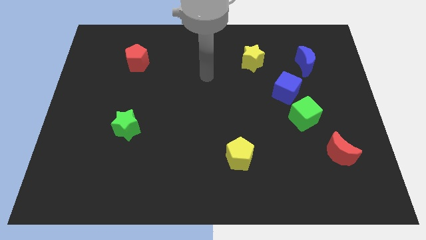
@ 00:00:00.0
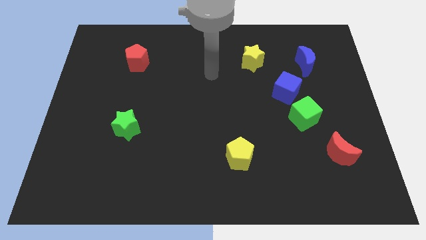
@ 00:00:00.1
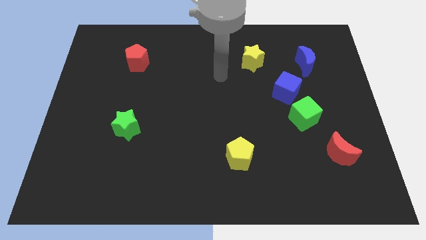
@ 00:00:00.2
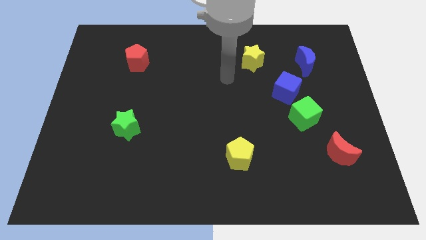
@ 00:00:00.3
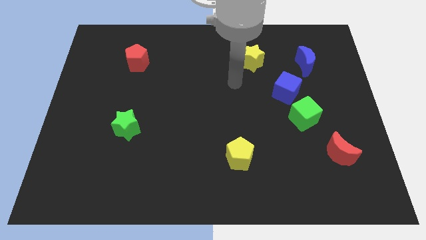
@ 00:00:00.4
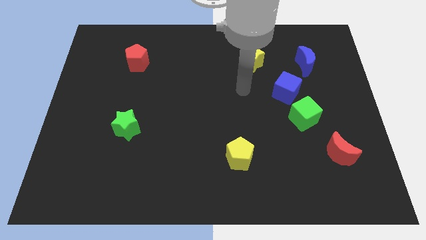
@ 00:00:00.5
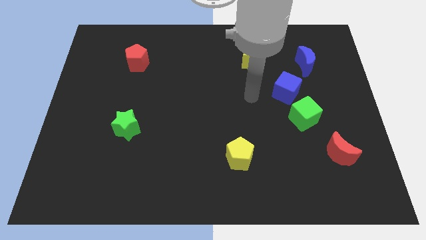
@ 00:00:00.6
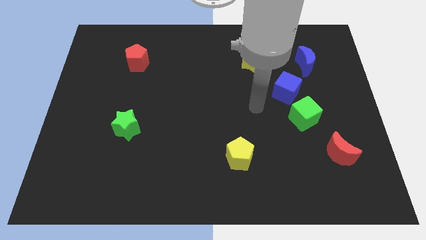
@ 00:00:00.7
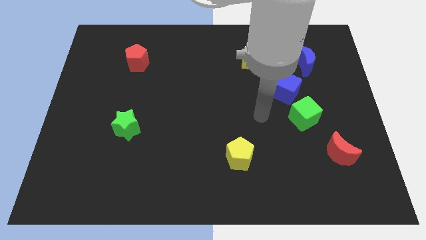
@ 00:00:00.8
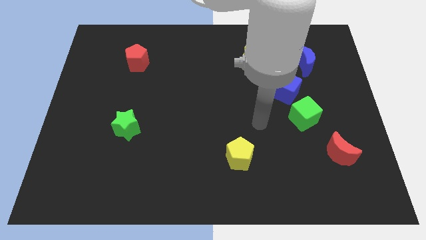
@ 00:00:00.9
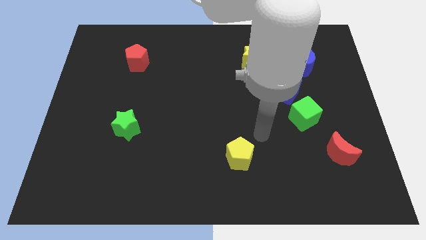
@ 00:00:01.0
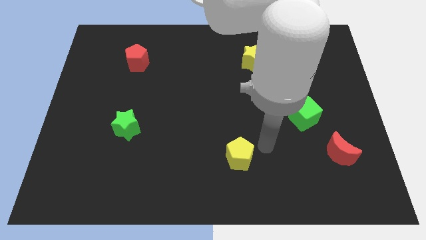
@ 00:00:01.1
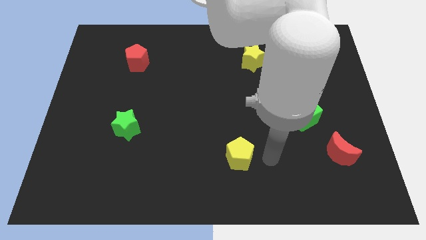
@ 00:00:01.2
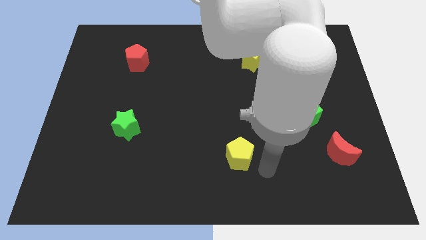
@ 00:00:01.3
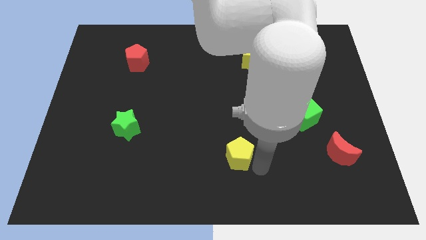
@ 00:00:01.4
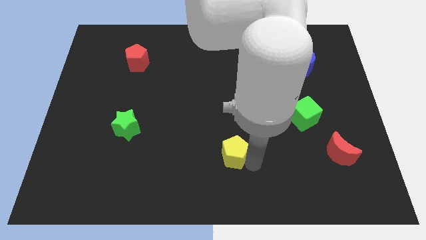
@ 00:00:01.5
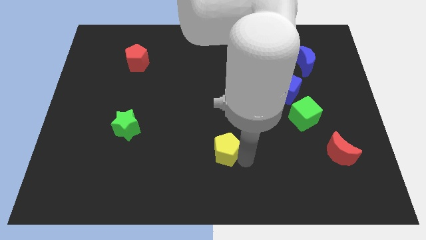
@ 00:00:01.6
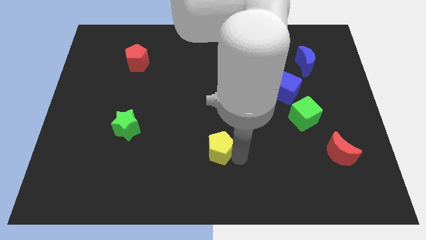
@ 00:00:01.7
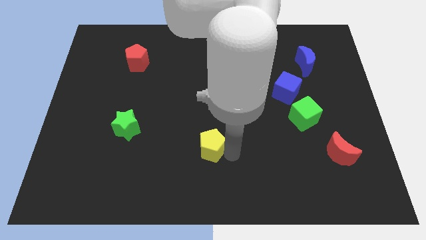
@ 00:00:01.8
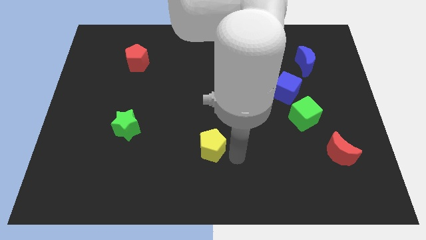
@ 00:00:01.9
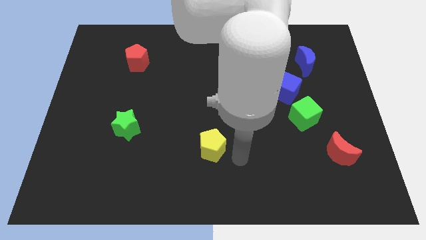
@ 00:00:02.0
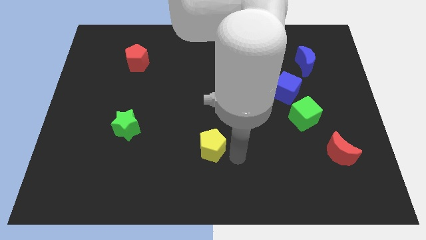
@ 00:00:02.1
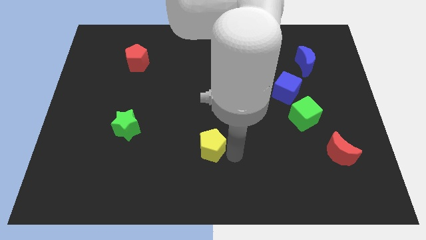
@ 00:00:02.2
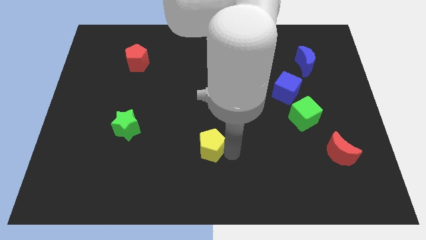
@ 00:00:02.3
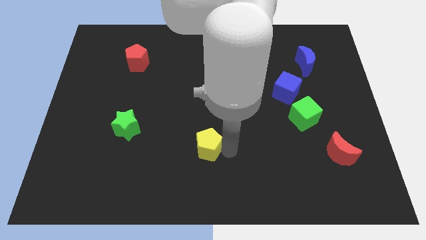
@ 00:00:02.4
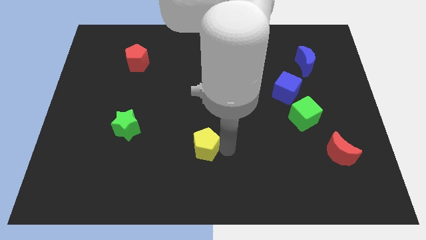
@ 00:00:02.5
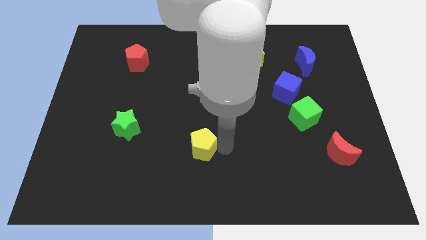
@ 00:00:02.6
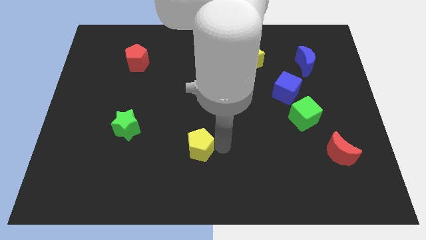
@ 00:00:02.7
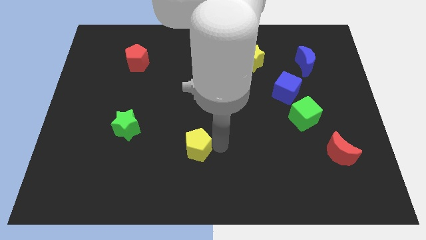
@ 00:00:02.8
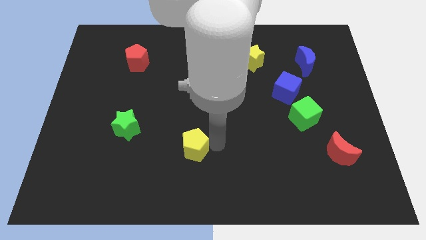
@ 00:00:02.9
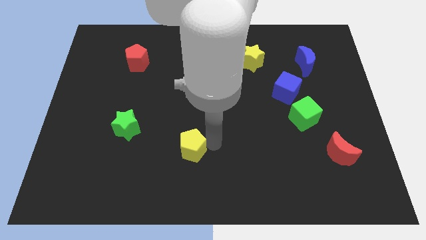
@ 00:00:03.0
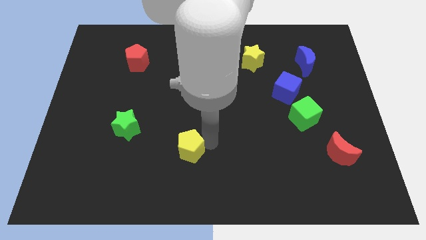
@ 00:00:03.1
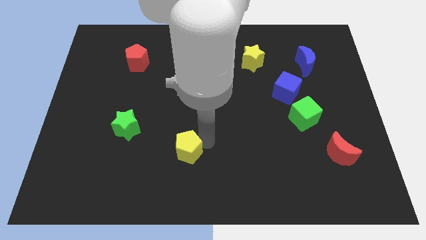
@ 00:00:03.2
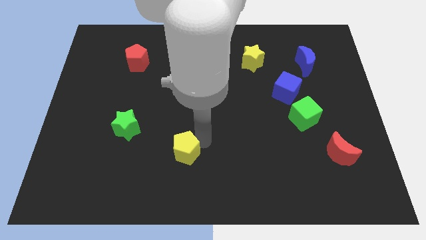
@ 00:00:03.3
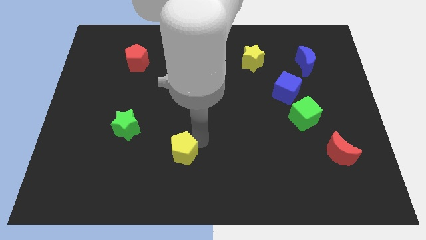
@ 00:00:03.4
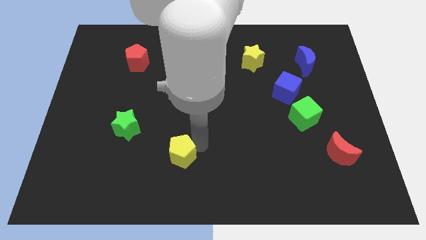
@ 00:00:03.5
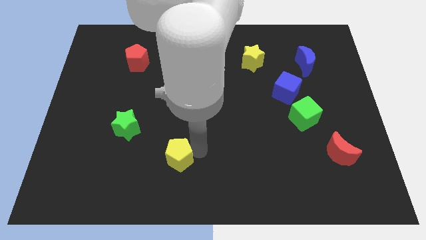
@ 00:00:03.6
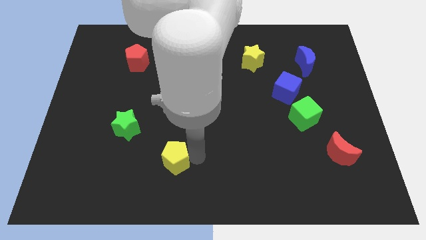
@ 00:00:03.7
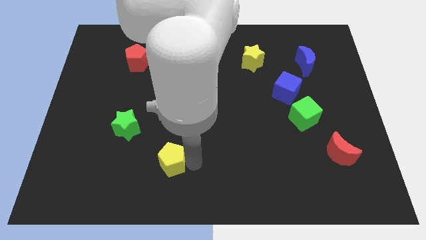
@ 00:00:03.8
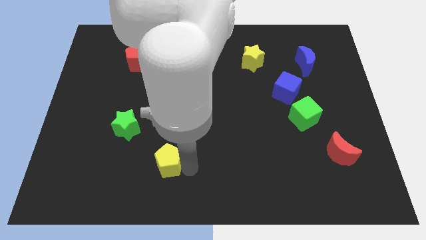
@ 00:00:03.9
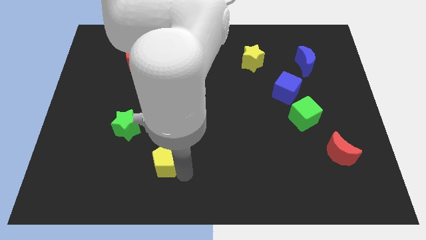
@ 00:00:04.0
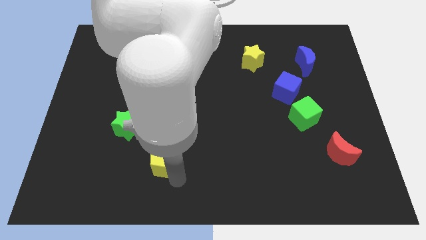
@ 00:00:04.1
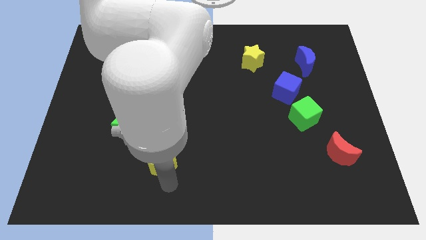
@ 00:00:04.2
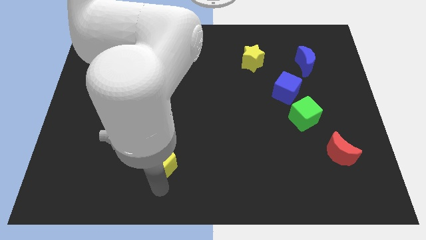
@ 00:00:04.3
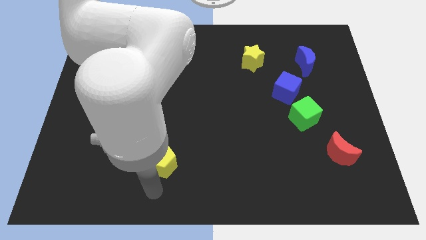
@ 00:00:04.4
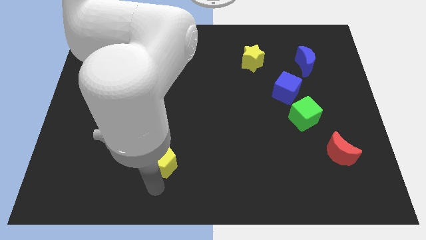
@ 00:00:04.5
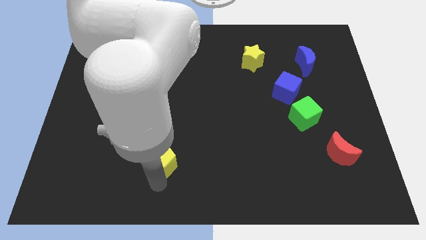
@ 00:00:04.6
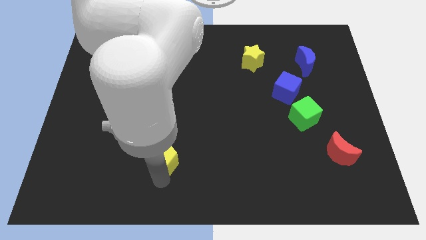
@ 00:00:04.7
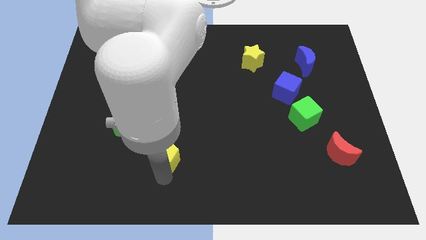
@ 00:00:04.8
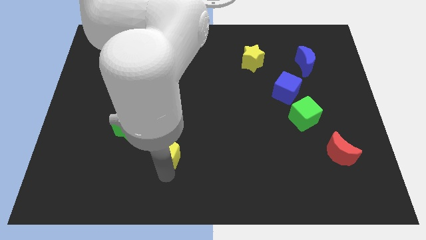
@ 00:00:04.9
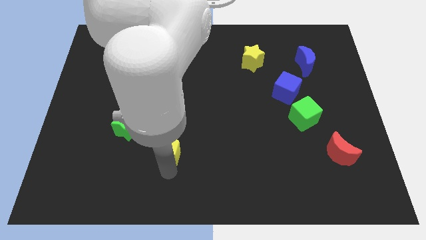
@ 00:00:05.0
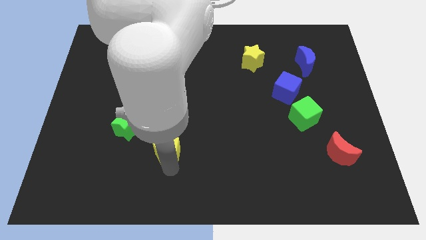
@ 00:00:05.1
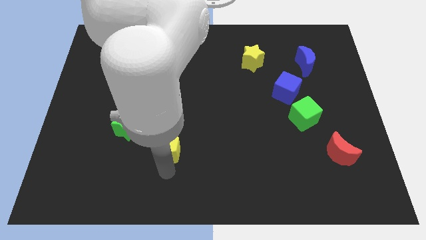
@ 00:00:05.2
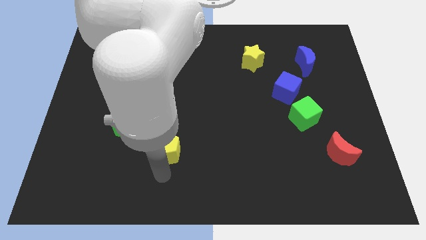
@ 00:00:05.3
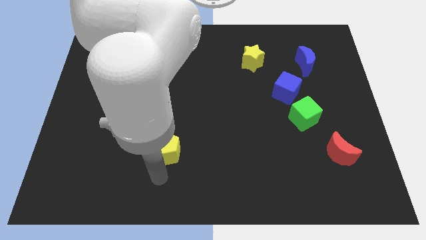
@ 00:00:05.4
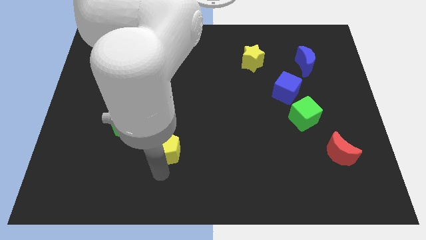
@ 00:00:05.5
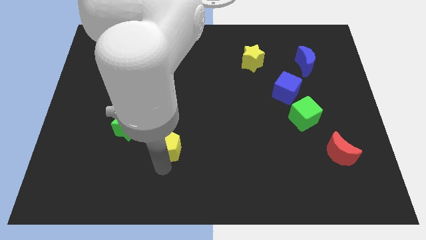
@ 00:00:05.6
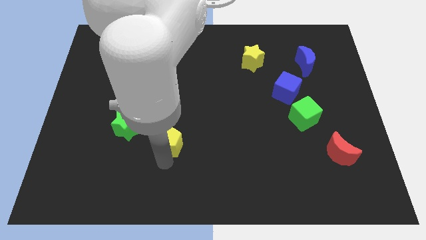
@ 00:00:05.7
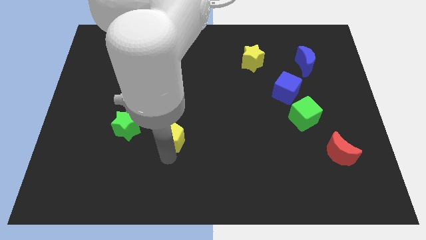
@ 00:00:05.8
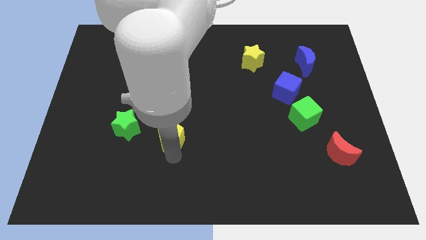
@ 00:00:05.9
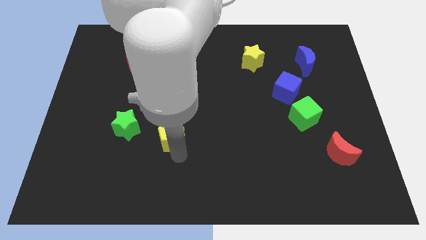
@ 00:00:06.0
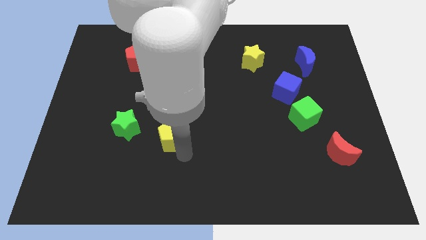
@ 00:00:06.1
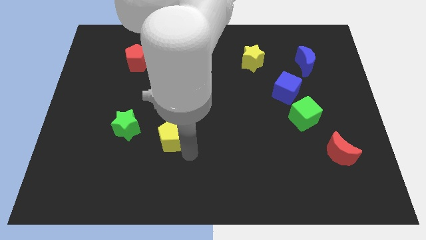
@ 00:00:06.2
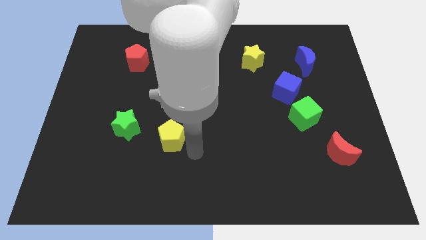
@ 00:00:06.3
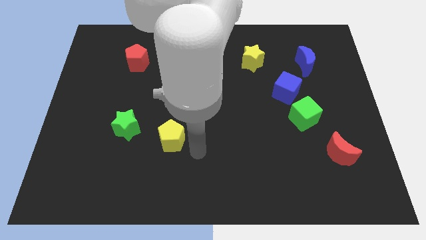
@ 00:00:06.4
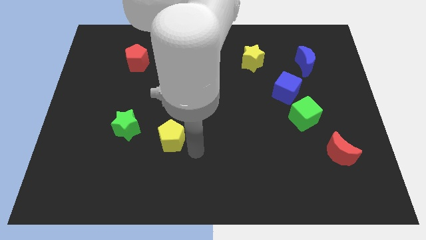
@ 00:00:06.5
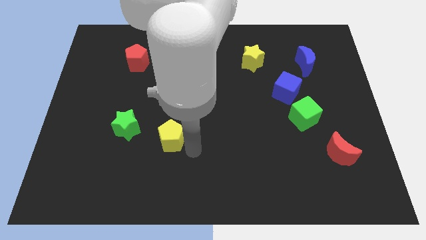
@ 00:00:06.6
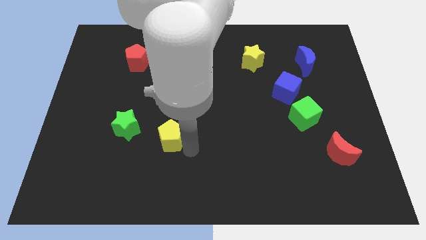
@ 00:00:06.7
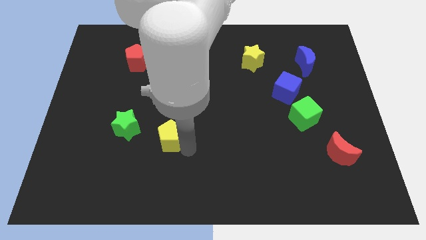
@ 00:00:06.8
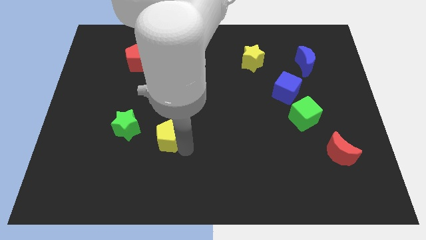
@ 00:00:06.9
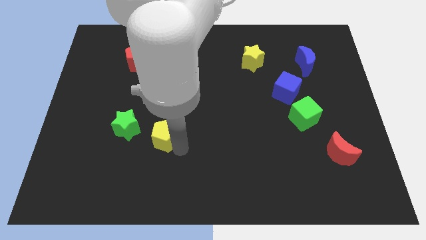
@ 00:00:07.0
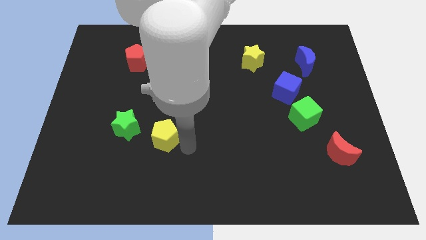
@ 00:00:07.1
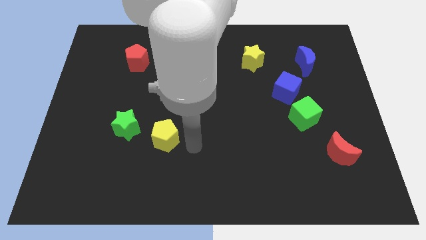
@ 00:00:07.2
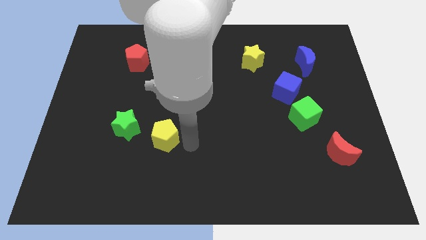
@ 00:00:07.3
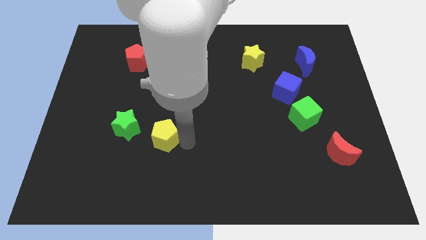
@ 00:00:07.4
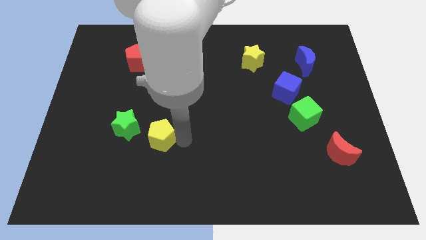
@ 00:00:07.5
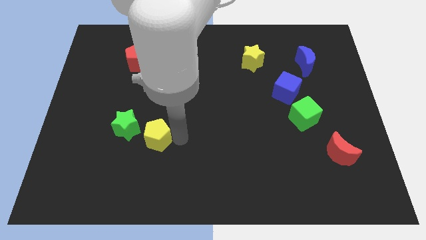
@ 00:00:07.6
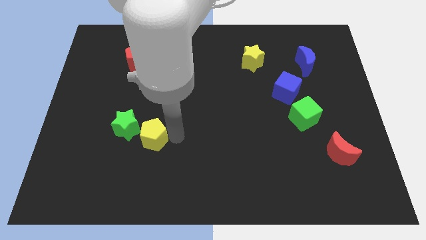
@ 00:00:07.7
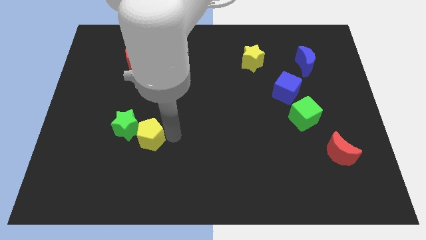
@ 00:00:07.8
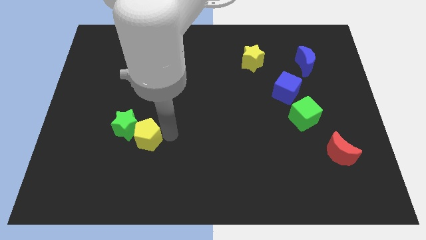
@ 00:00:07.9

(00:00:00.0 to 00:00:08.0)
move the yellow pentagon next to the green star
